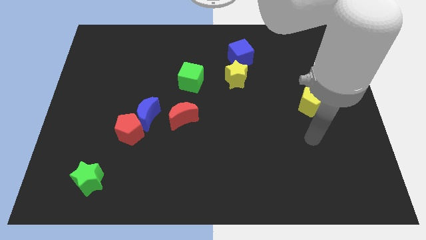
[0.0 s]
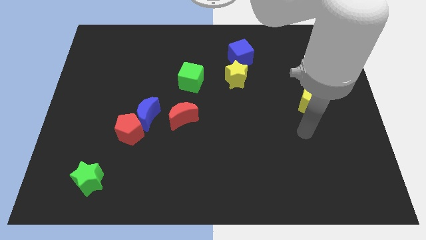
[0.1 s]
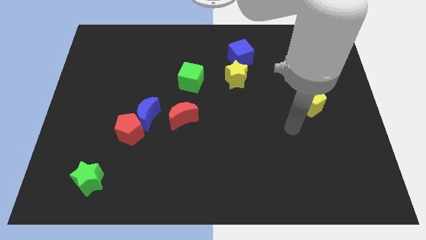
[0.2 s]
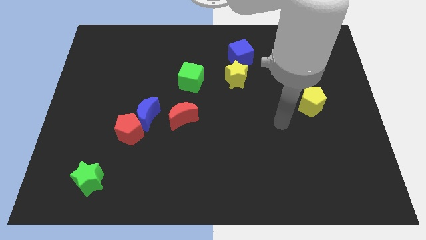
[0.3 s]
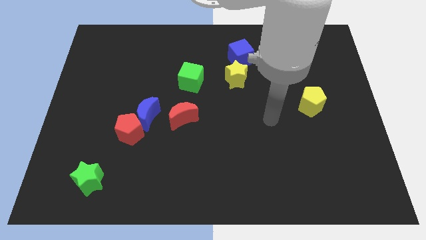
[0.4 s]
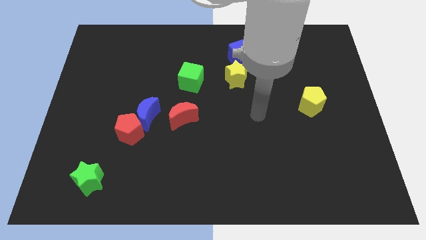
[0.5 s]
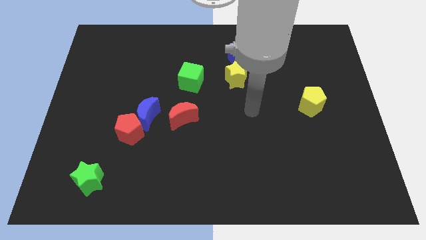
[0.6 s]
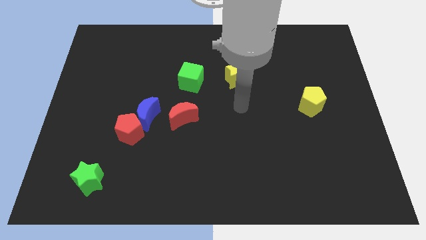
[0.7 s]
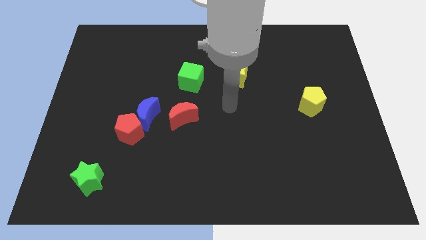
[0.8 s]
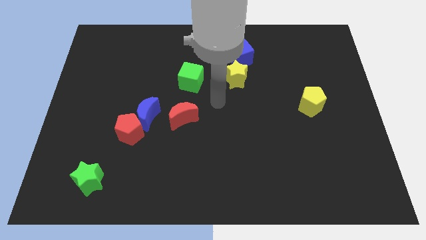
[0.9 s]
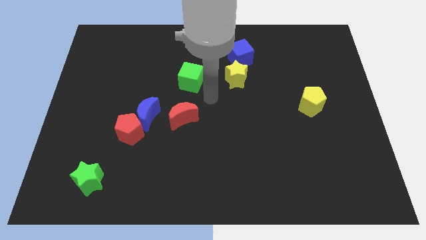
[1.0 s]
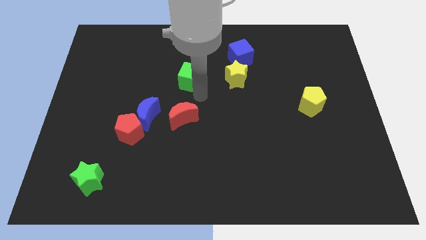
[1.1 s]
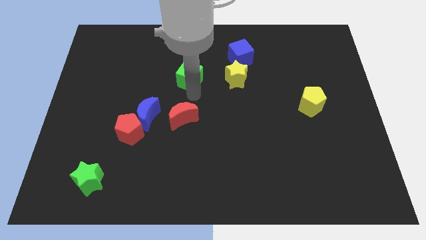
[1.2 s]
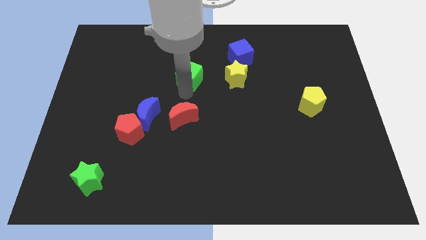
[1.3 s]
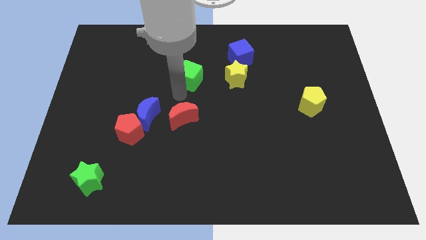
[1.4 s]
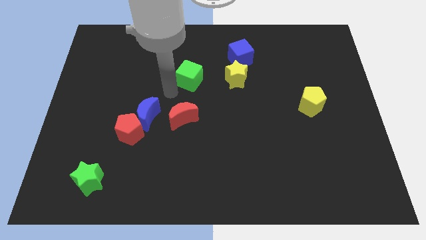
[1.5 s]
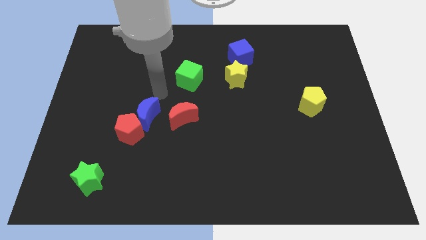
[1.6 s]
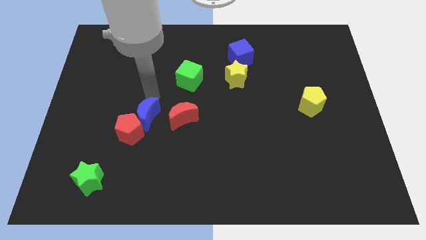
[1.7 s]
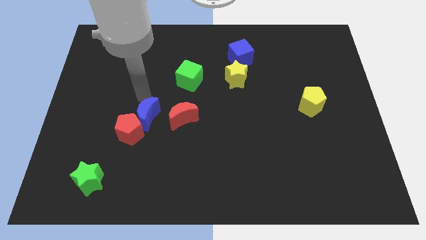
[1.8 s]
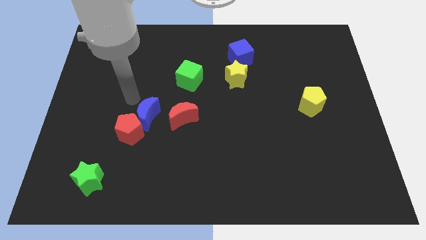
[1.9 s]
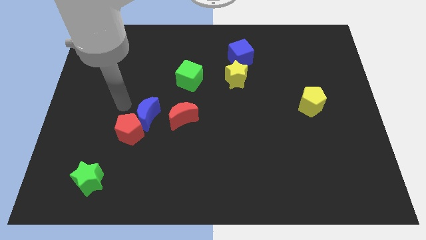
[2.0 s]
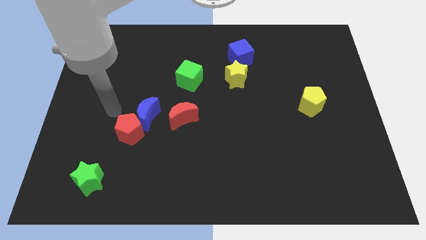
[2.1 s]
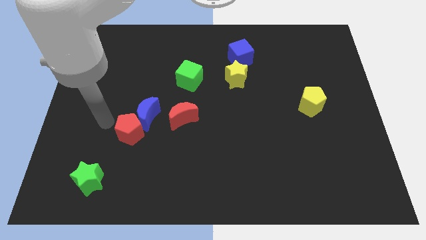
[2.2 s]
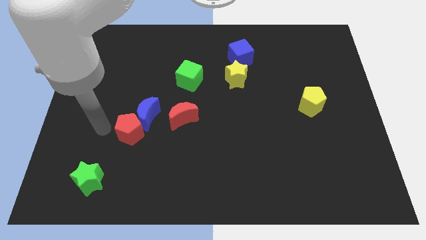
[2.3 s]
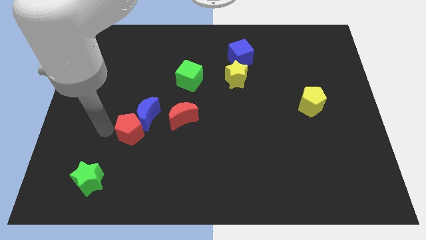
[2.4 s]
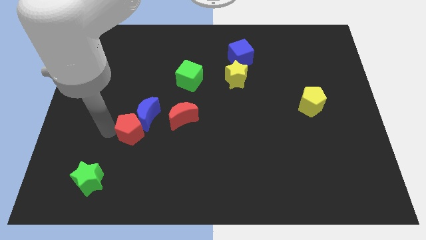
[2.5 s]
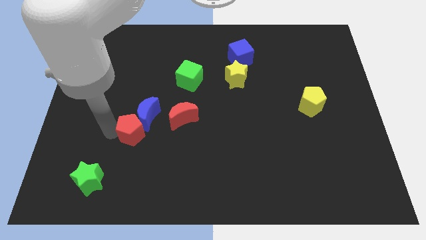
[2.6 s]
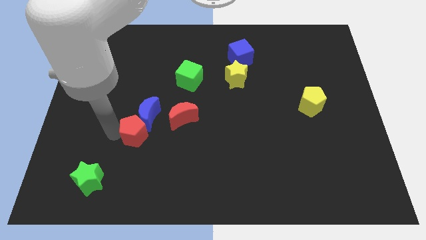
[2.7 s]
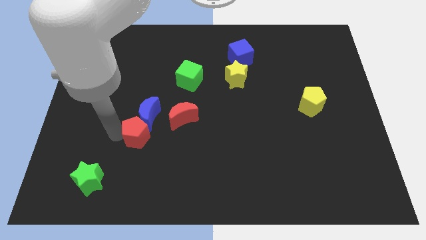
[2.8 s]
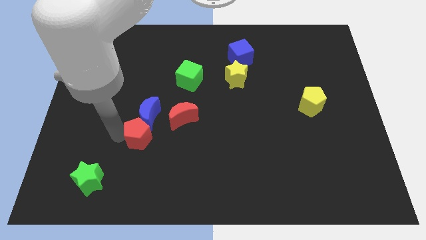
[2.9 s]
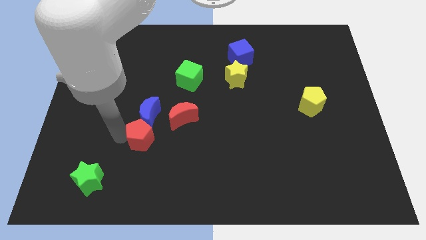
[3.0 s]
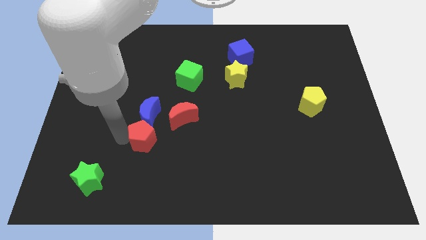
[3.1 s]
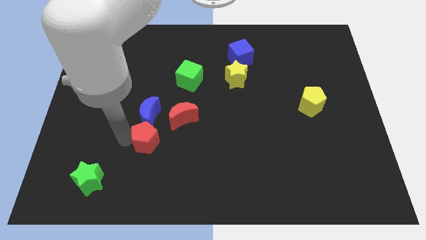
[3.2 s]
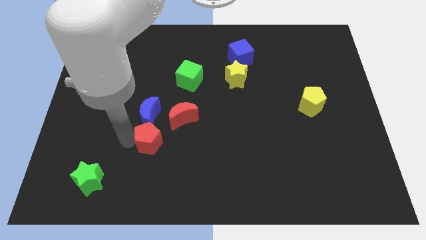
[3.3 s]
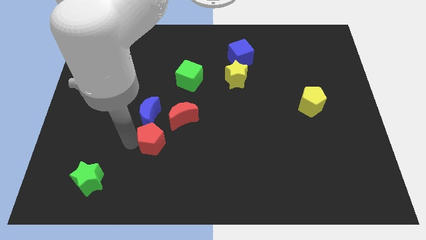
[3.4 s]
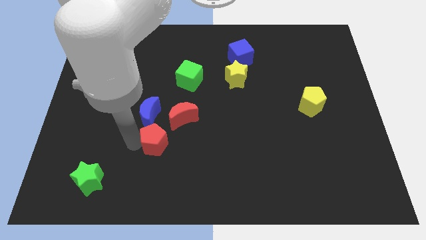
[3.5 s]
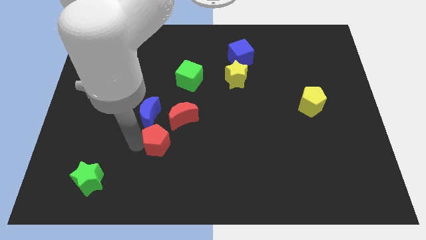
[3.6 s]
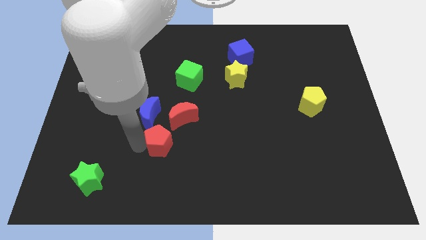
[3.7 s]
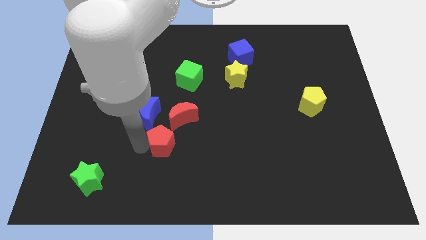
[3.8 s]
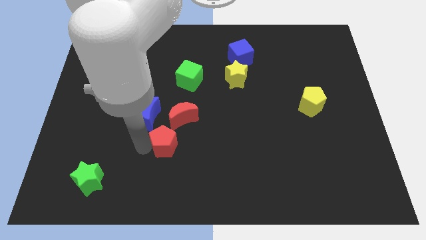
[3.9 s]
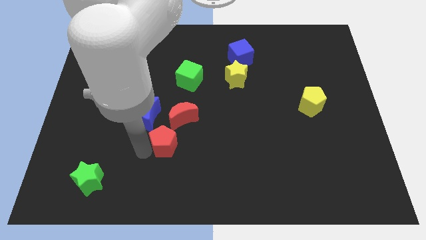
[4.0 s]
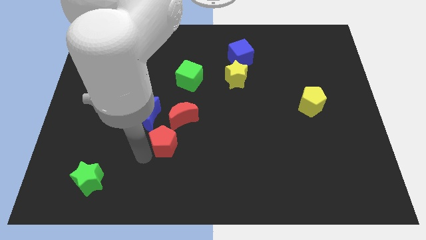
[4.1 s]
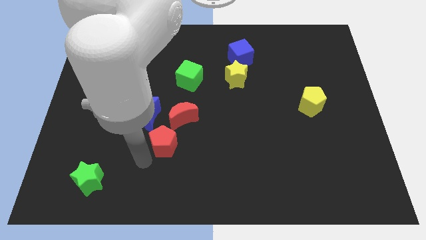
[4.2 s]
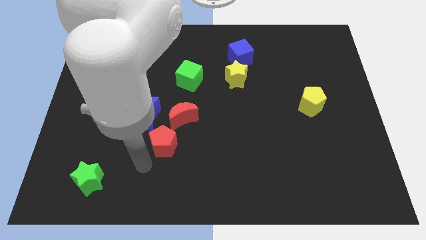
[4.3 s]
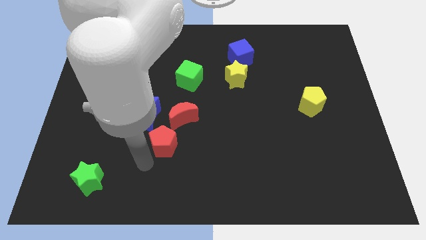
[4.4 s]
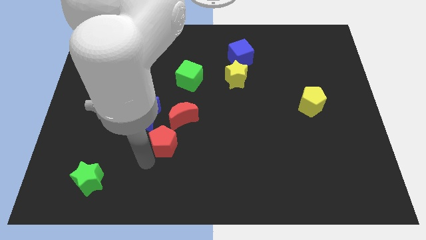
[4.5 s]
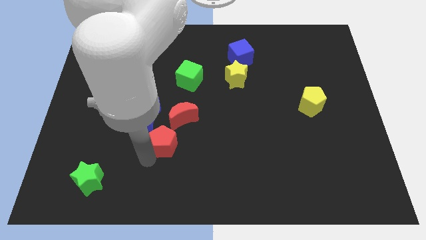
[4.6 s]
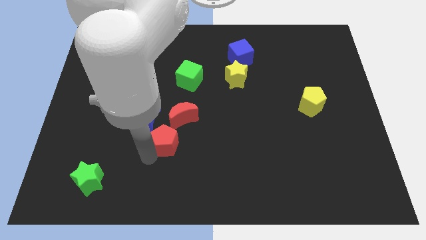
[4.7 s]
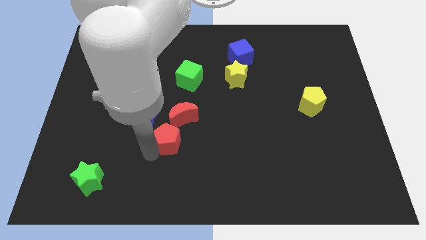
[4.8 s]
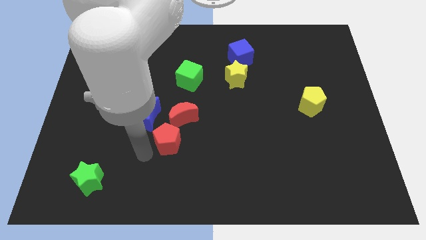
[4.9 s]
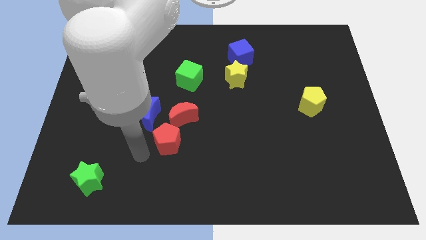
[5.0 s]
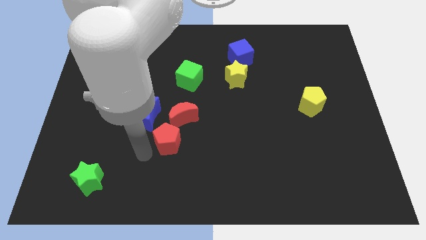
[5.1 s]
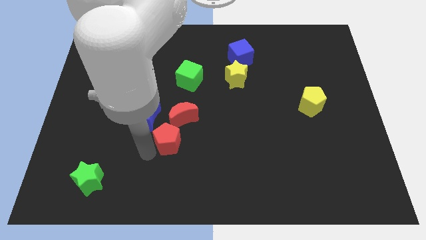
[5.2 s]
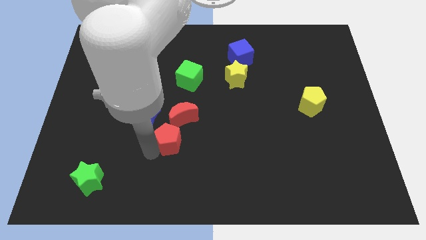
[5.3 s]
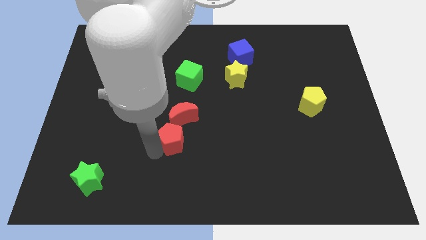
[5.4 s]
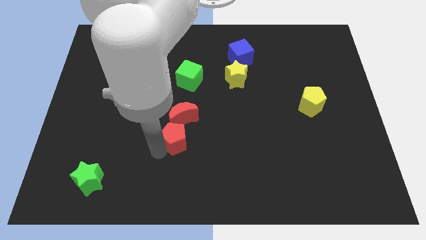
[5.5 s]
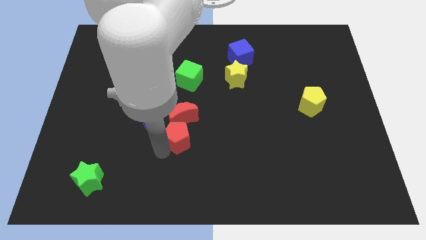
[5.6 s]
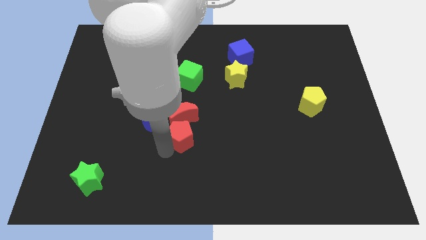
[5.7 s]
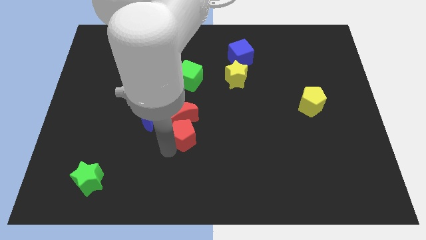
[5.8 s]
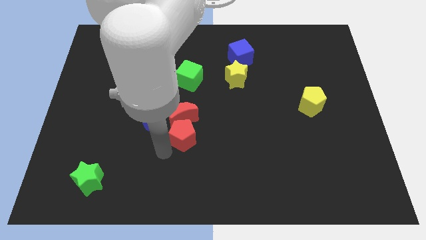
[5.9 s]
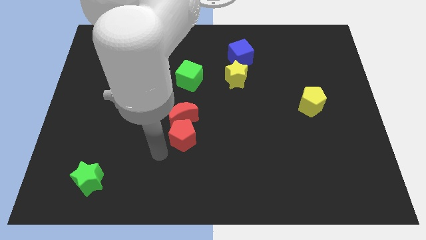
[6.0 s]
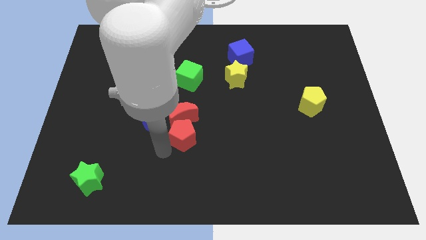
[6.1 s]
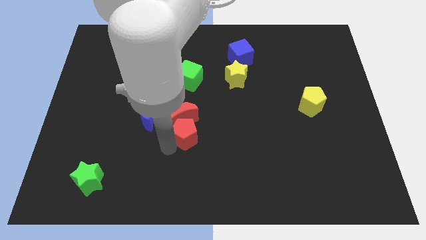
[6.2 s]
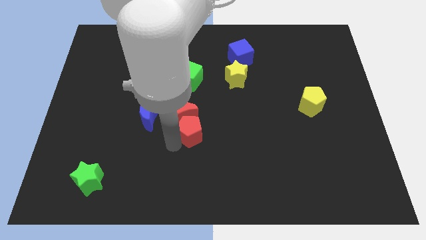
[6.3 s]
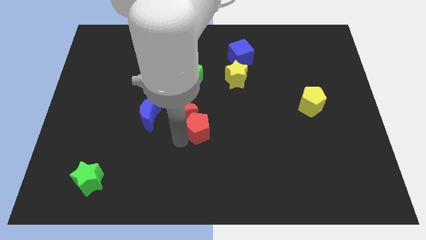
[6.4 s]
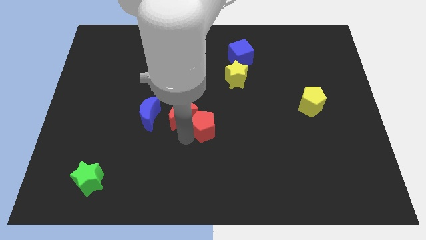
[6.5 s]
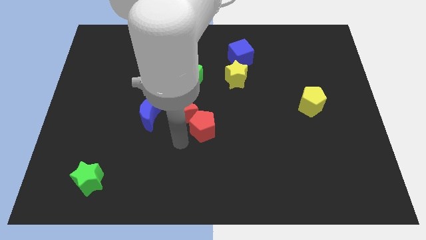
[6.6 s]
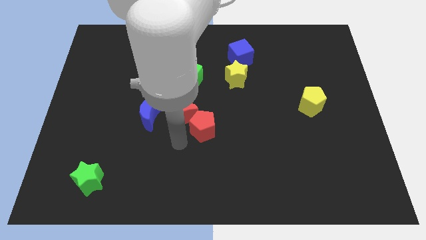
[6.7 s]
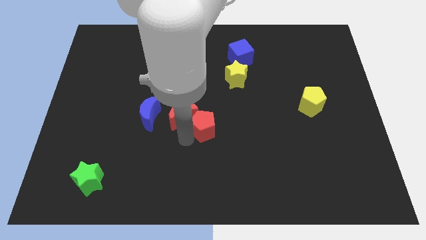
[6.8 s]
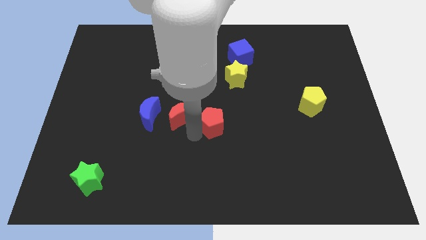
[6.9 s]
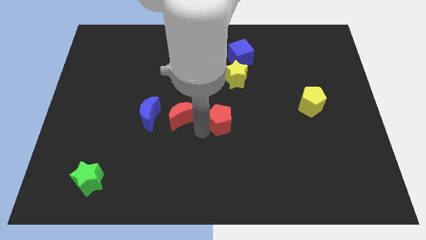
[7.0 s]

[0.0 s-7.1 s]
move the red pentagon to the bottom of the yellow star
